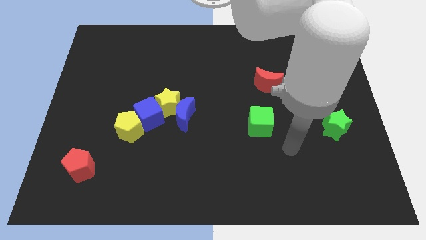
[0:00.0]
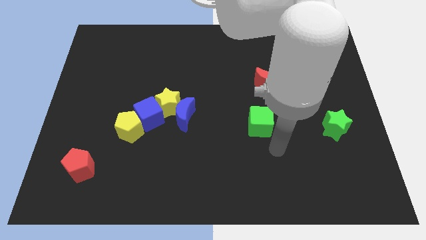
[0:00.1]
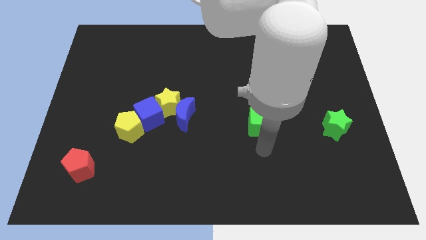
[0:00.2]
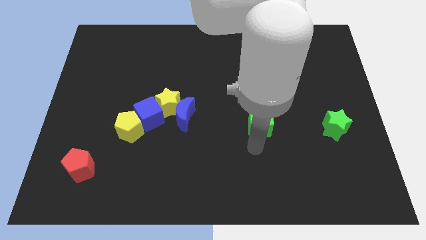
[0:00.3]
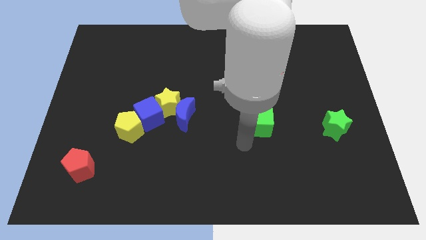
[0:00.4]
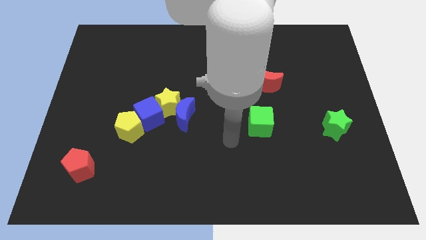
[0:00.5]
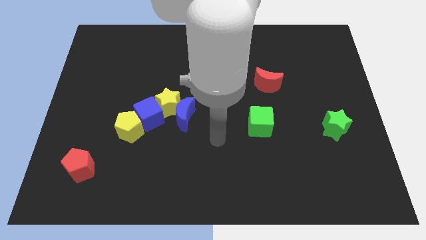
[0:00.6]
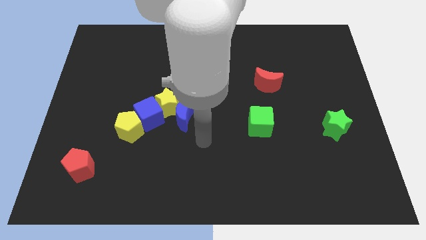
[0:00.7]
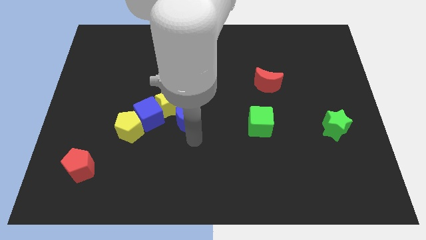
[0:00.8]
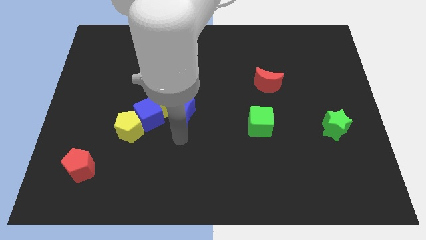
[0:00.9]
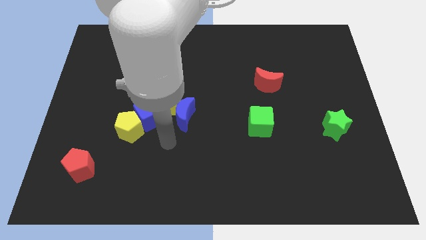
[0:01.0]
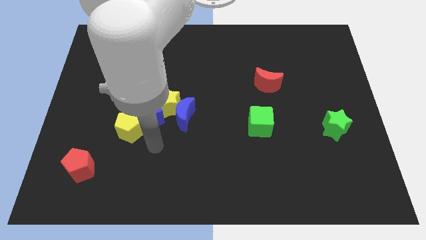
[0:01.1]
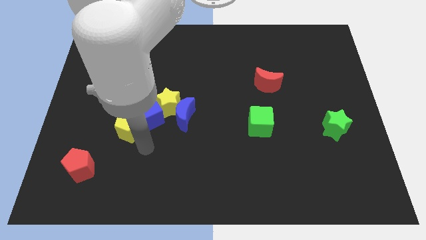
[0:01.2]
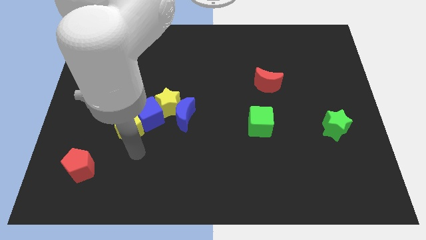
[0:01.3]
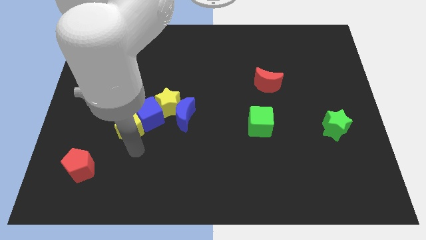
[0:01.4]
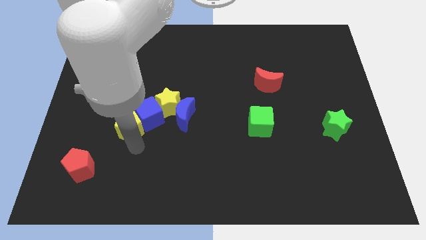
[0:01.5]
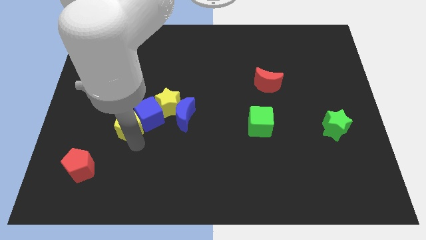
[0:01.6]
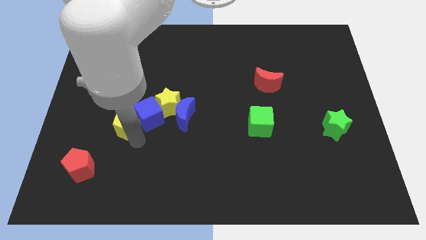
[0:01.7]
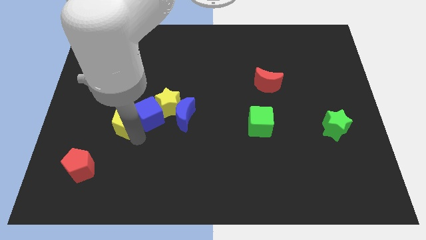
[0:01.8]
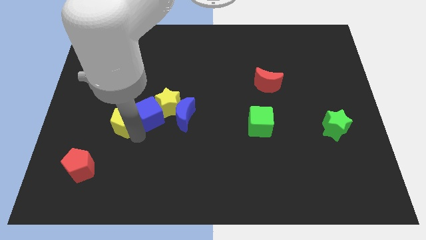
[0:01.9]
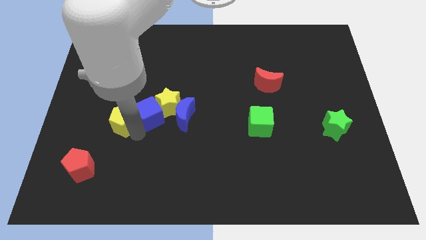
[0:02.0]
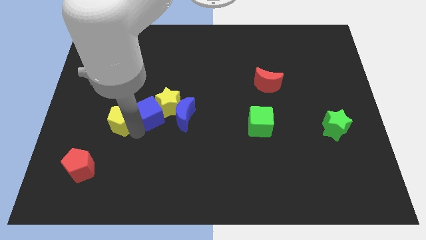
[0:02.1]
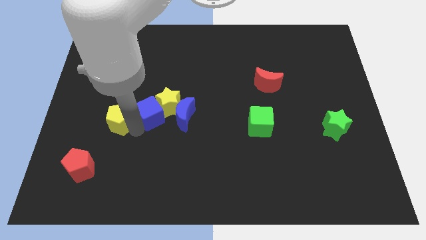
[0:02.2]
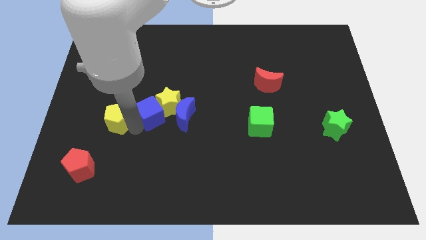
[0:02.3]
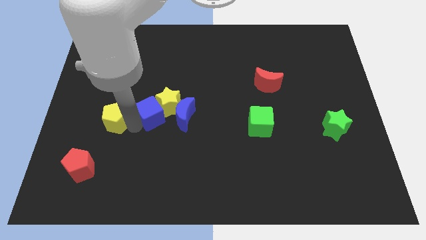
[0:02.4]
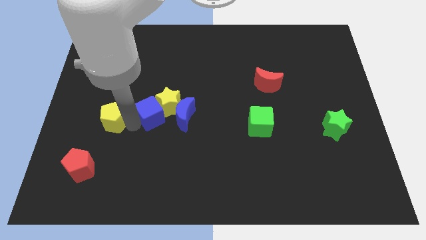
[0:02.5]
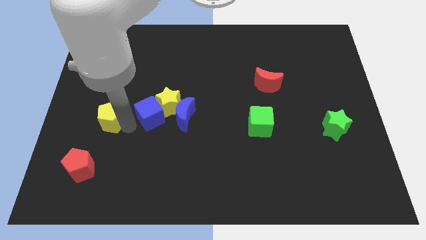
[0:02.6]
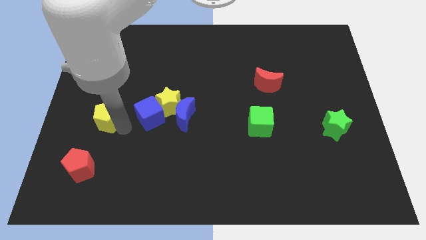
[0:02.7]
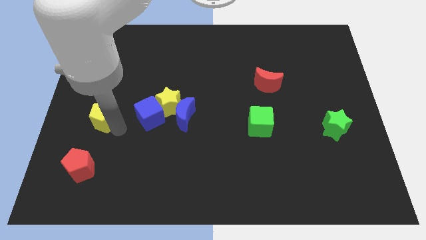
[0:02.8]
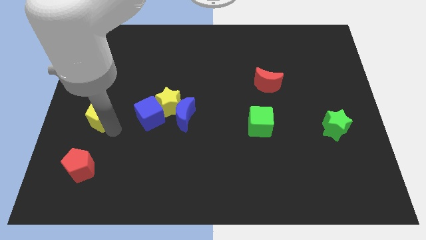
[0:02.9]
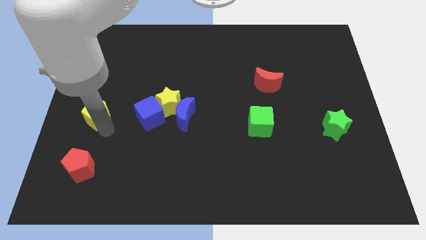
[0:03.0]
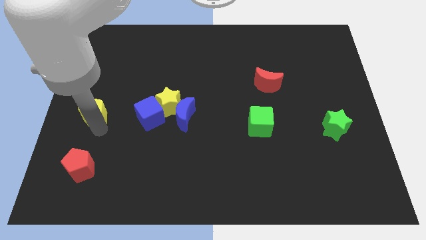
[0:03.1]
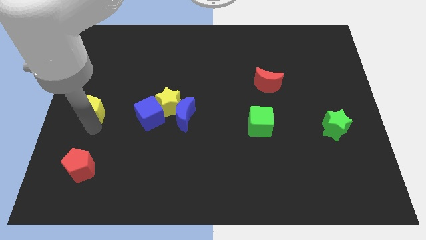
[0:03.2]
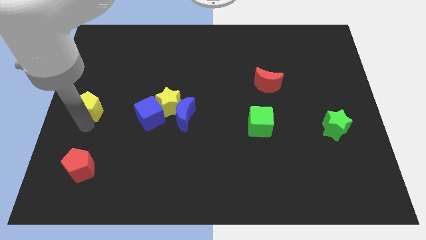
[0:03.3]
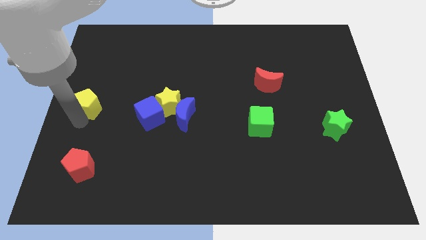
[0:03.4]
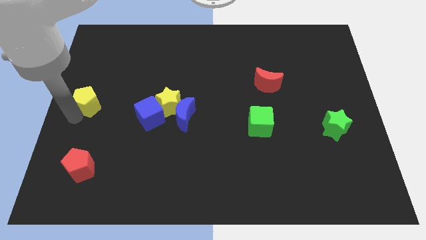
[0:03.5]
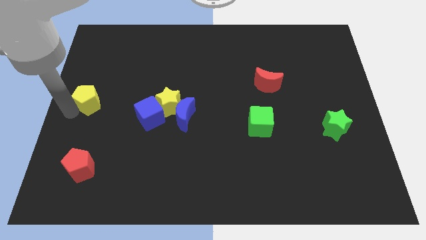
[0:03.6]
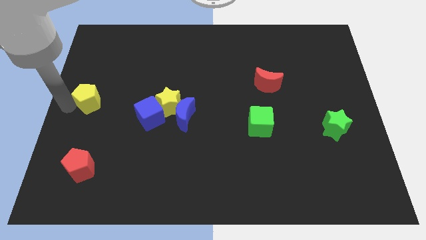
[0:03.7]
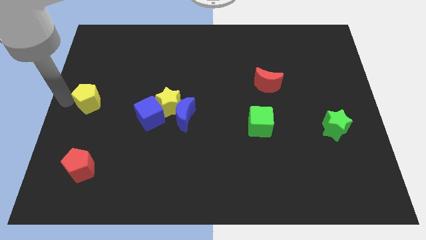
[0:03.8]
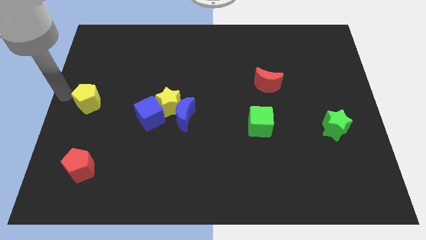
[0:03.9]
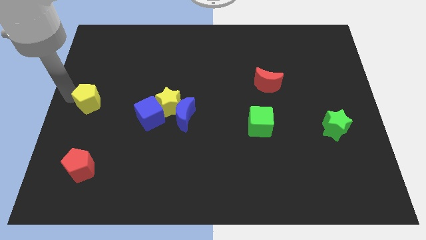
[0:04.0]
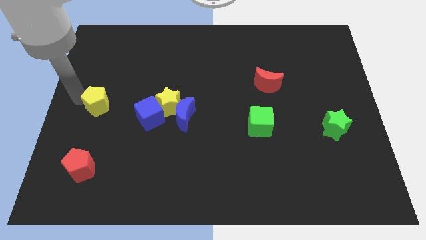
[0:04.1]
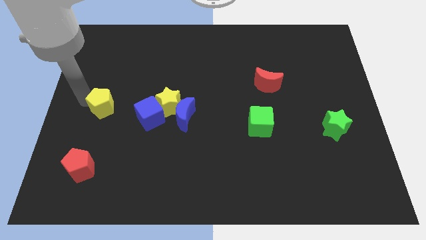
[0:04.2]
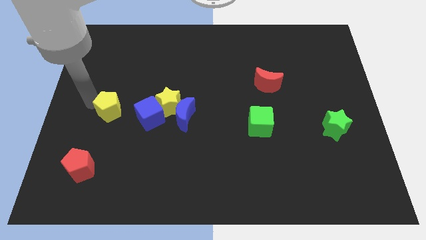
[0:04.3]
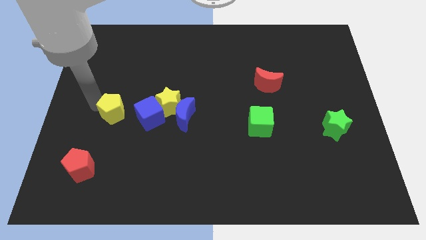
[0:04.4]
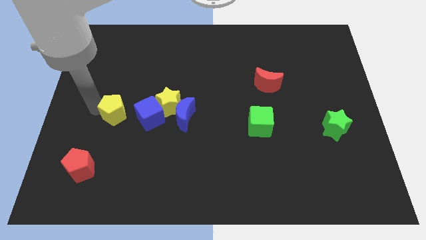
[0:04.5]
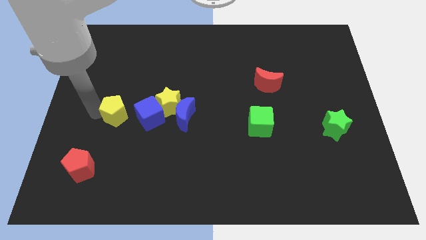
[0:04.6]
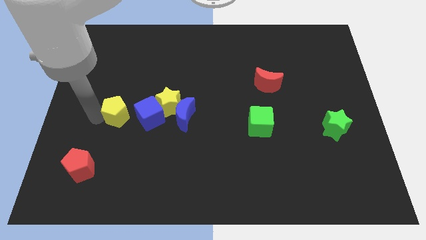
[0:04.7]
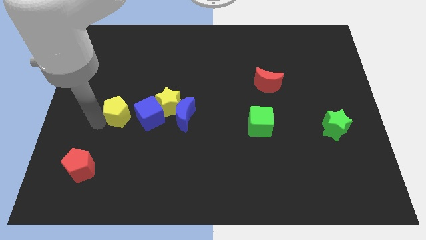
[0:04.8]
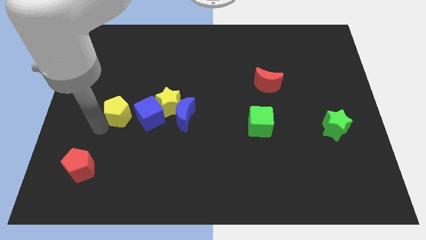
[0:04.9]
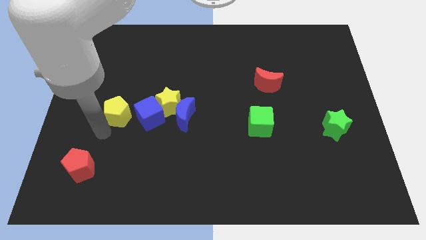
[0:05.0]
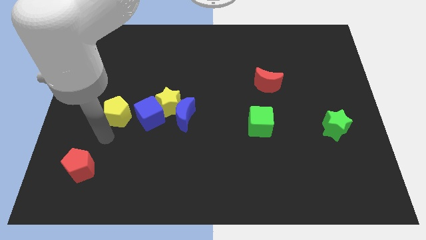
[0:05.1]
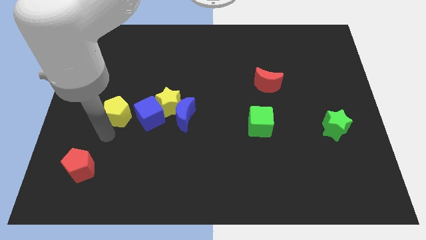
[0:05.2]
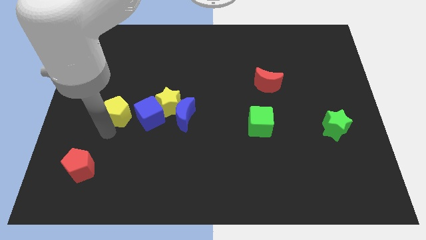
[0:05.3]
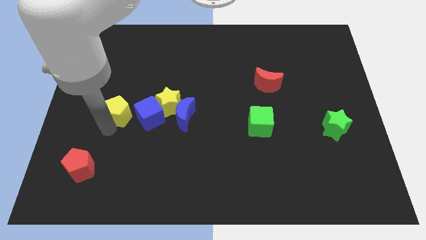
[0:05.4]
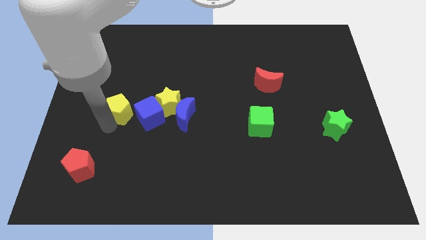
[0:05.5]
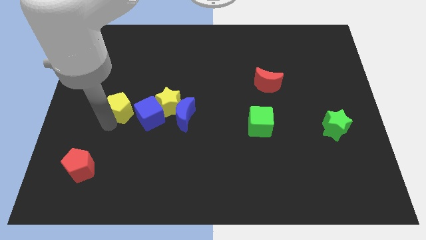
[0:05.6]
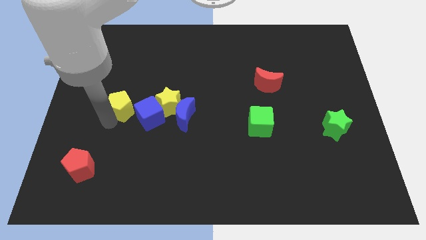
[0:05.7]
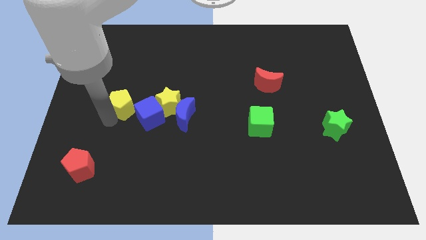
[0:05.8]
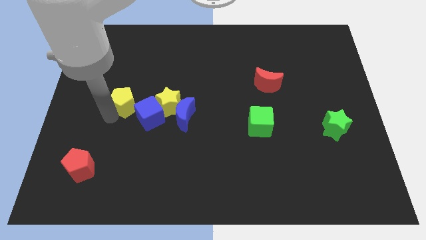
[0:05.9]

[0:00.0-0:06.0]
slightly push the yellow pentagon up

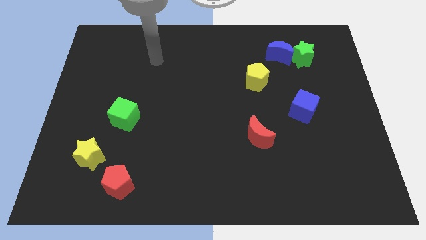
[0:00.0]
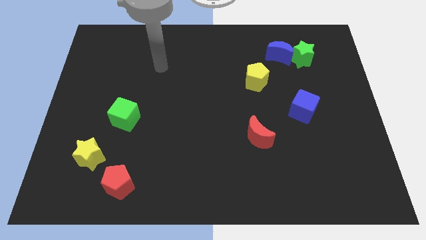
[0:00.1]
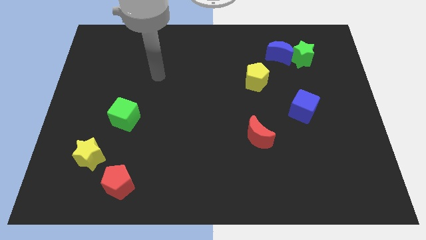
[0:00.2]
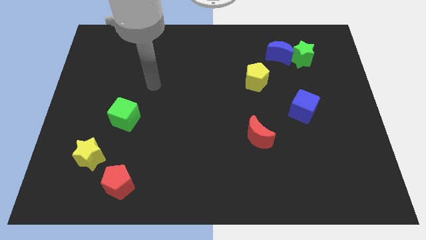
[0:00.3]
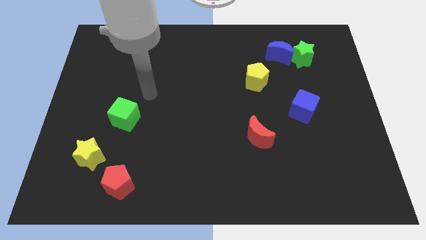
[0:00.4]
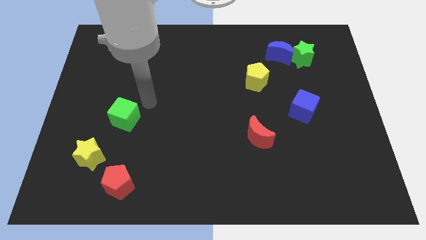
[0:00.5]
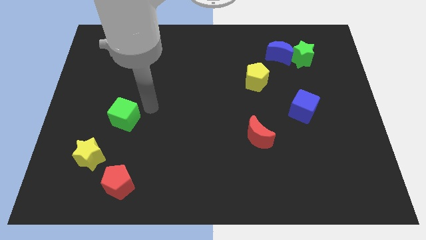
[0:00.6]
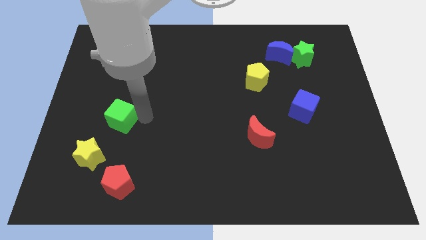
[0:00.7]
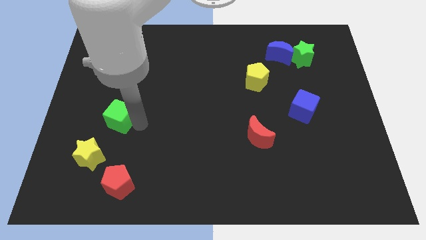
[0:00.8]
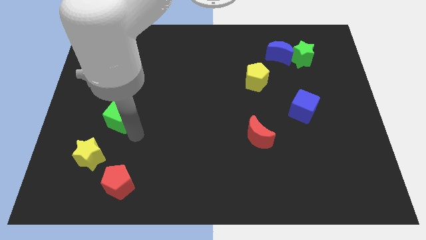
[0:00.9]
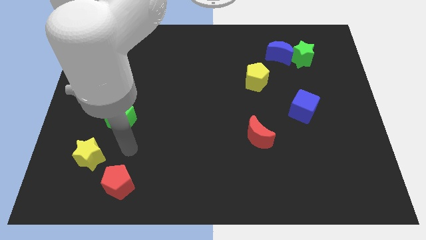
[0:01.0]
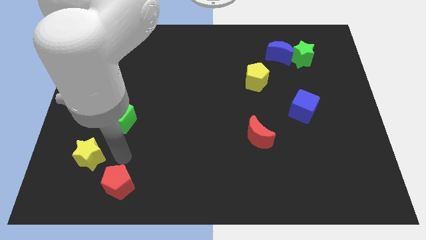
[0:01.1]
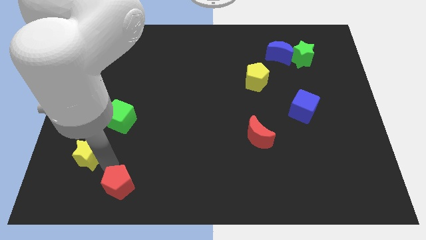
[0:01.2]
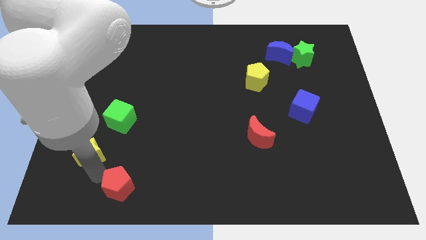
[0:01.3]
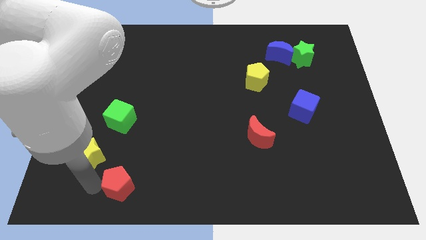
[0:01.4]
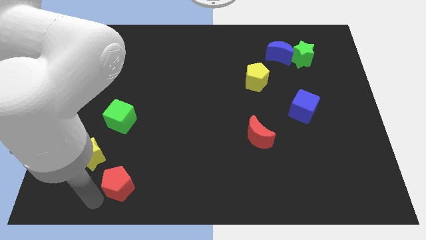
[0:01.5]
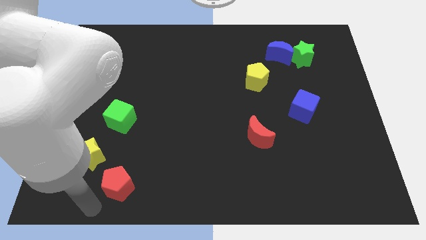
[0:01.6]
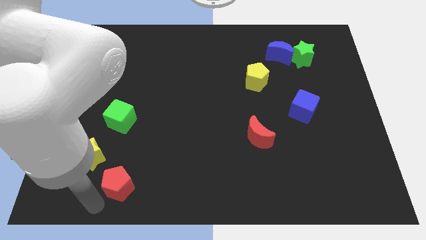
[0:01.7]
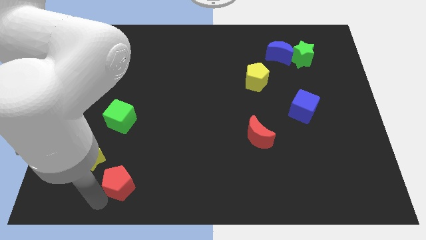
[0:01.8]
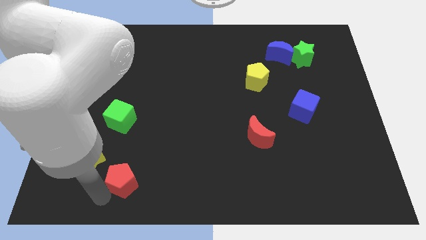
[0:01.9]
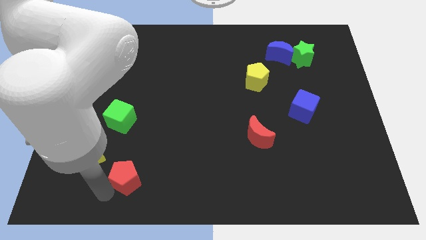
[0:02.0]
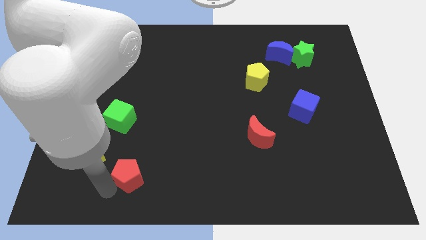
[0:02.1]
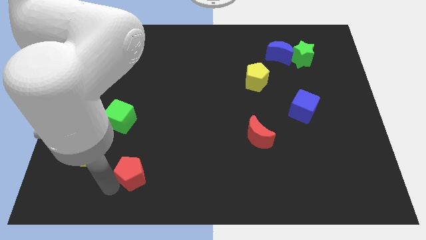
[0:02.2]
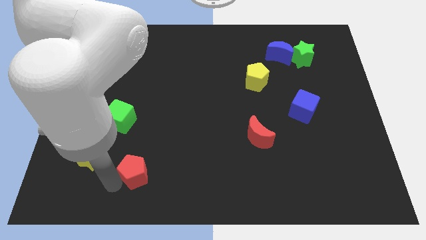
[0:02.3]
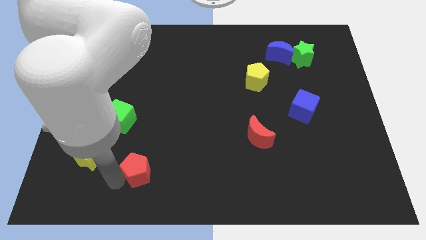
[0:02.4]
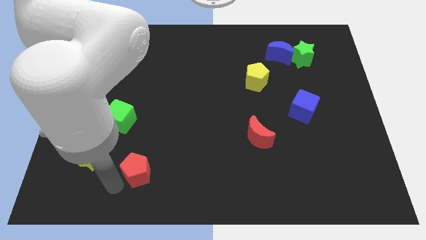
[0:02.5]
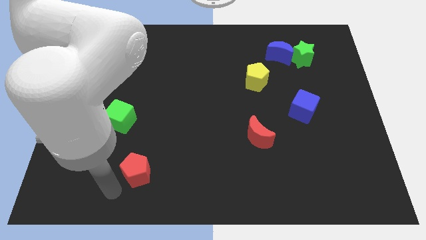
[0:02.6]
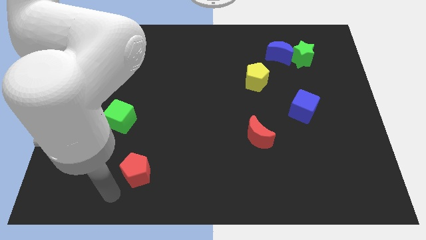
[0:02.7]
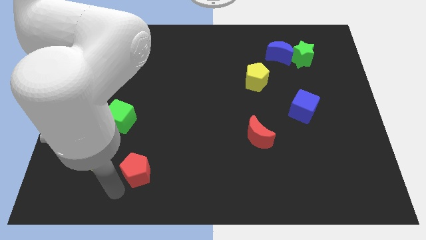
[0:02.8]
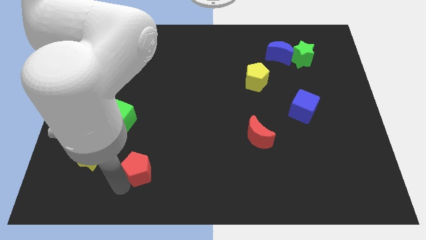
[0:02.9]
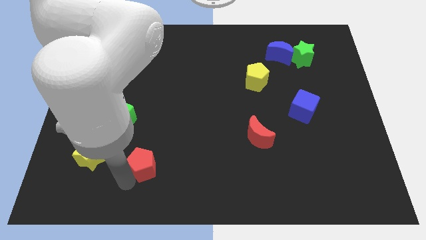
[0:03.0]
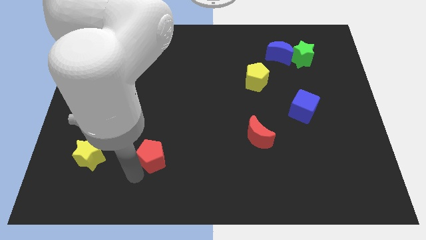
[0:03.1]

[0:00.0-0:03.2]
slightly push the red pentagon upwards and right diagonally
